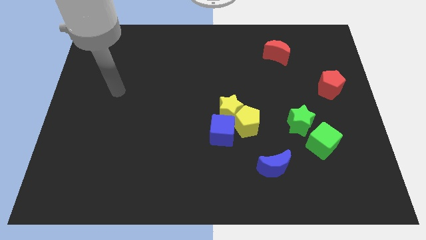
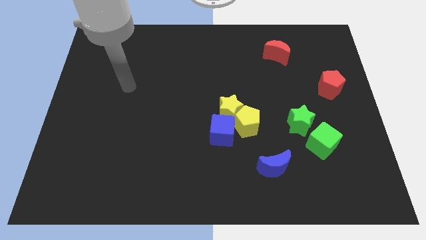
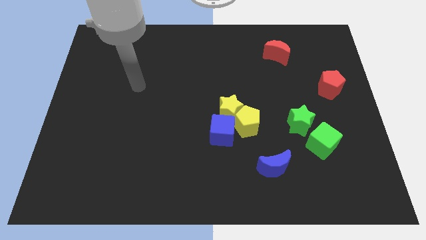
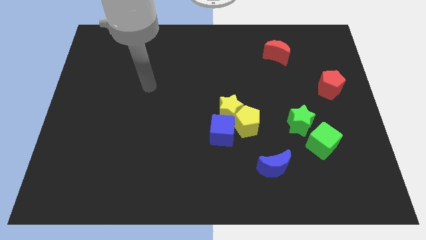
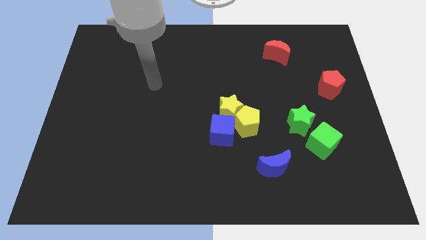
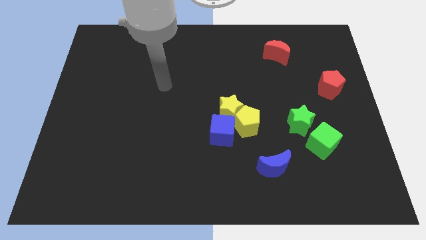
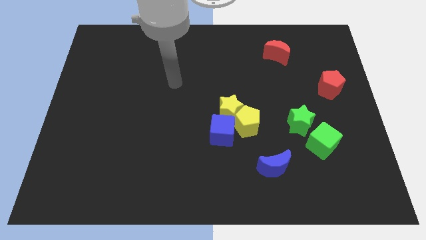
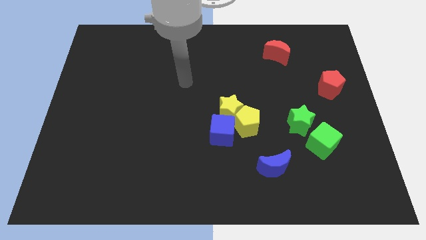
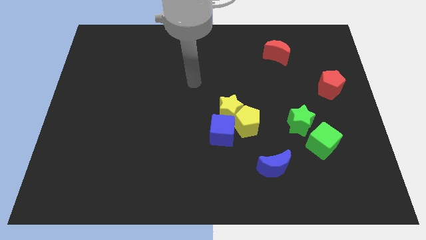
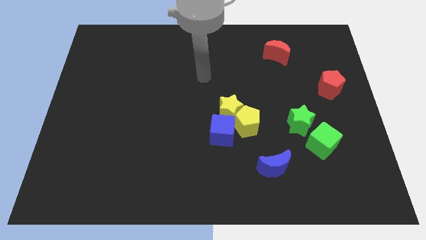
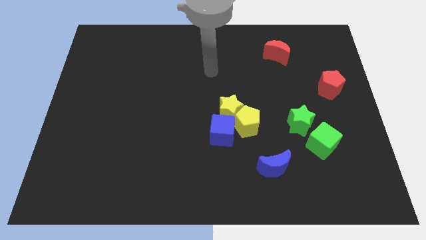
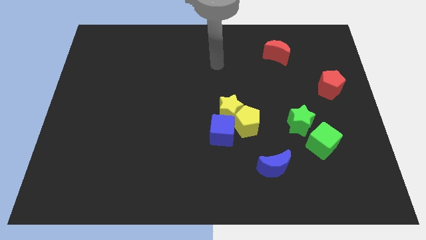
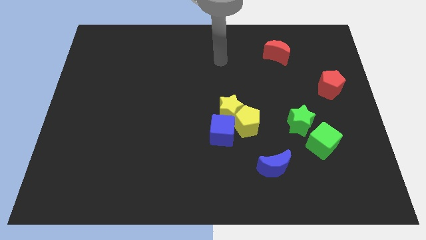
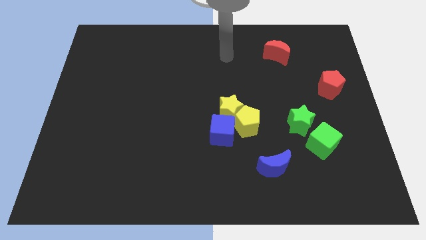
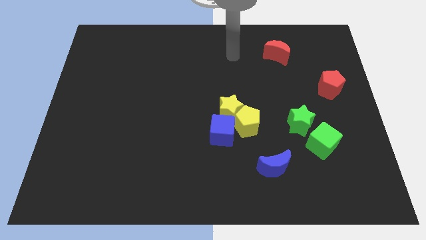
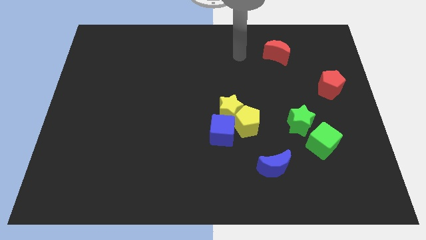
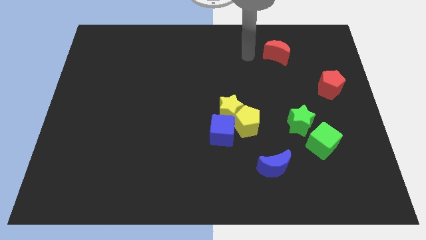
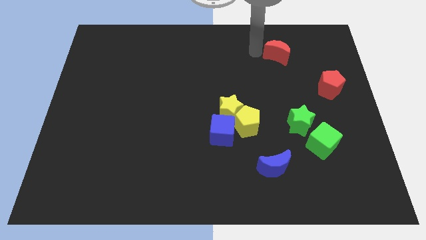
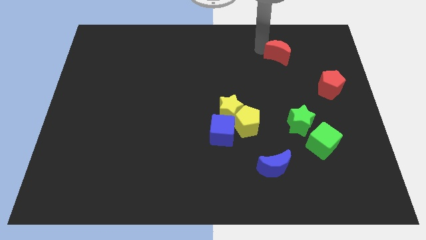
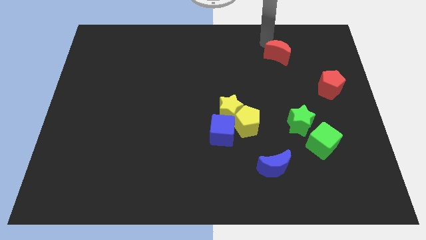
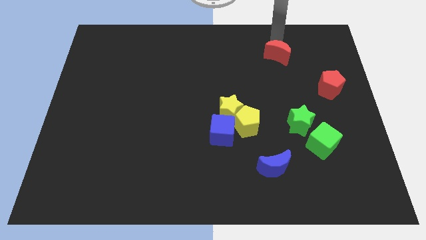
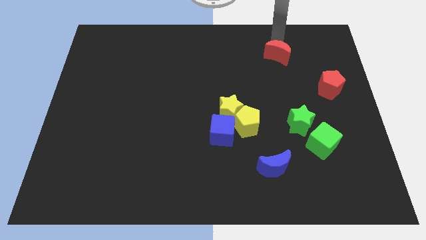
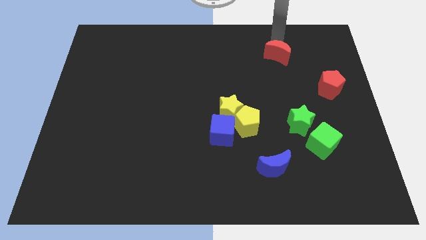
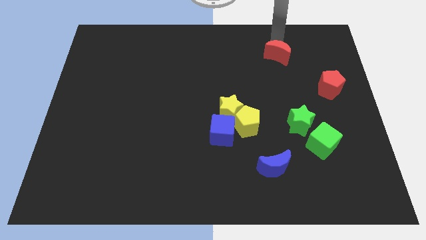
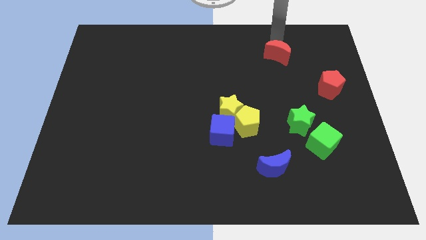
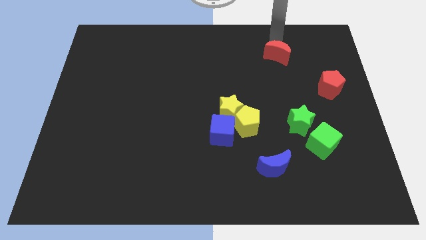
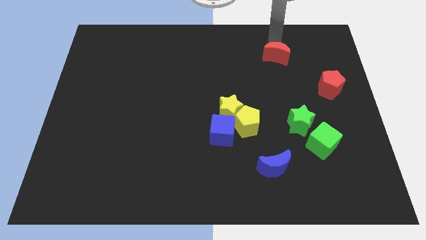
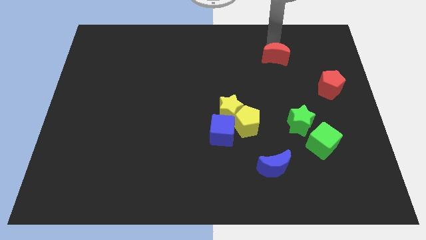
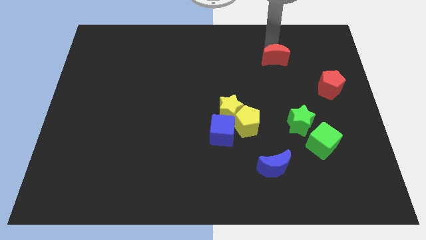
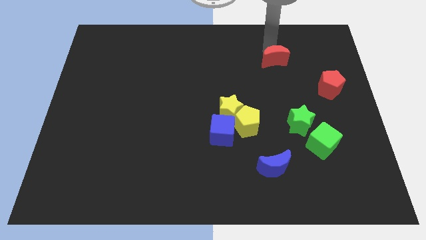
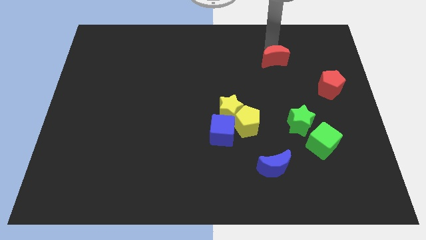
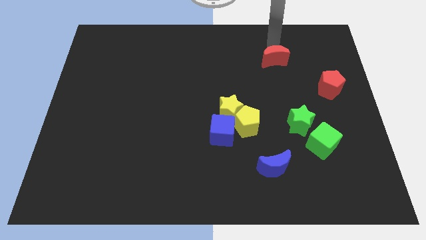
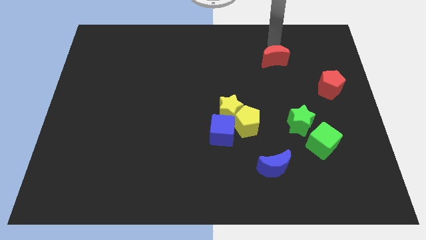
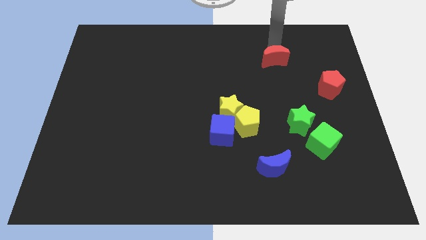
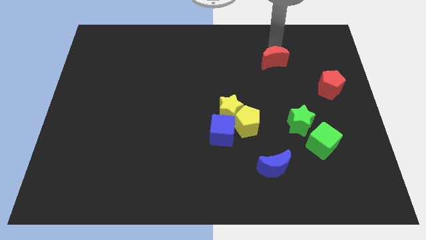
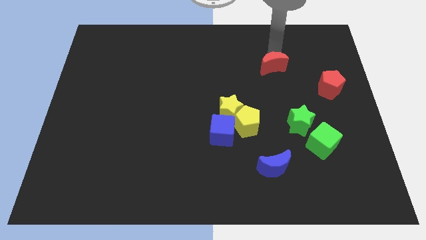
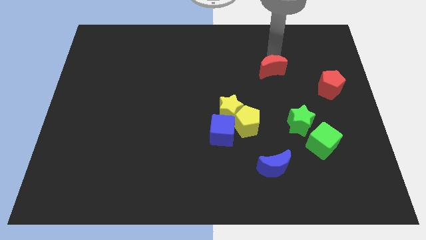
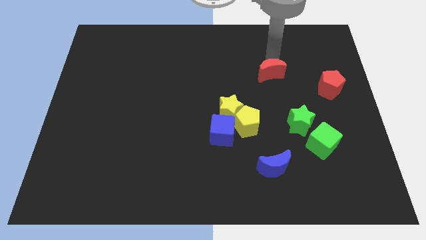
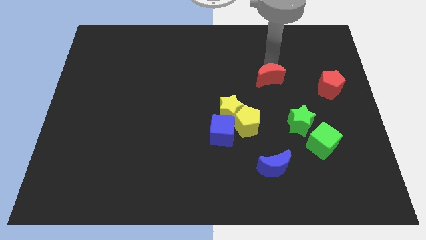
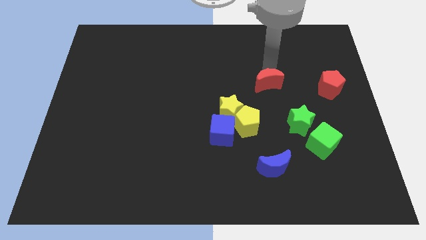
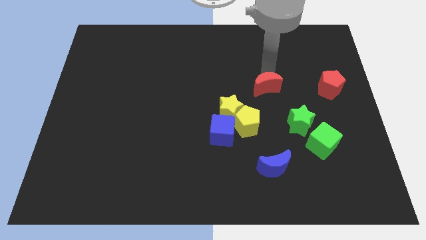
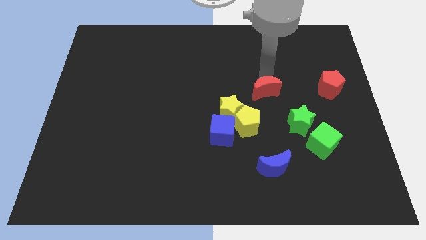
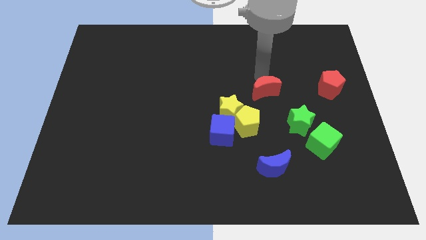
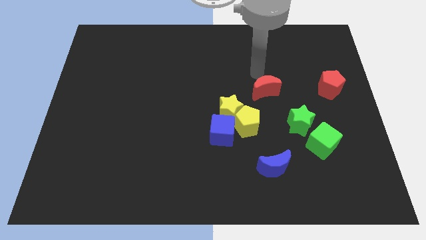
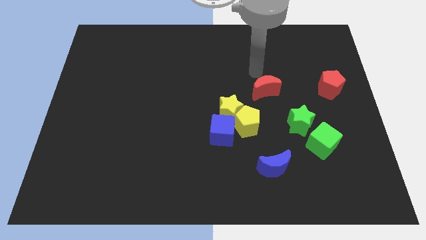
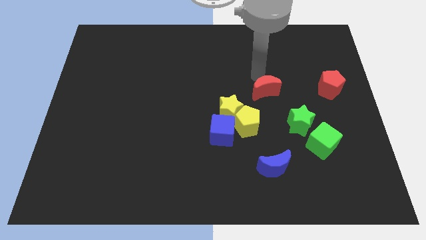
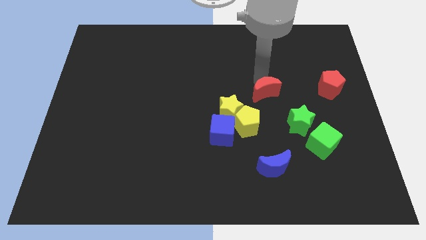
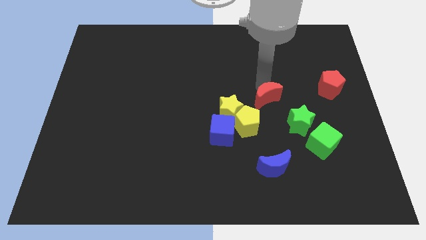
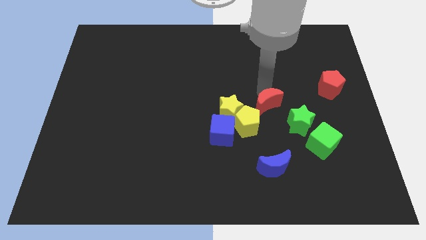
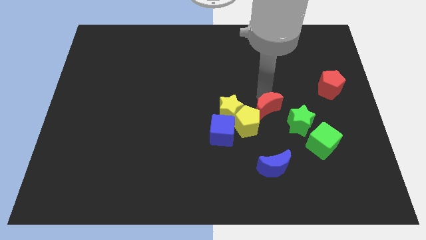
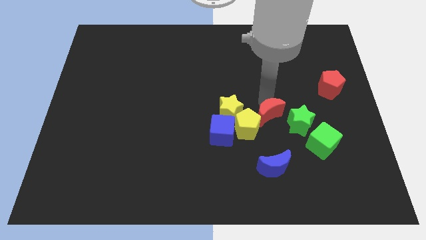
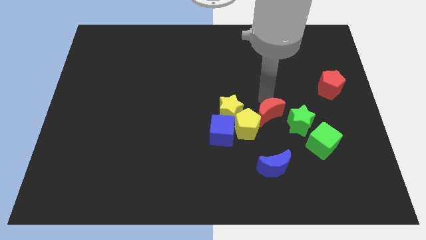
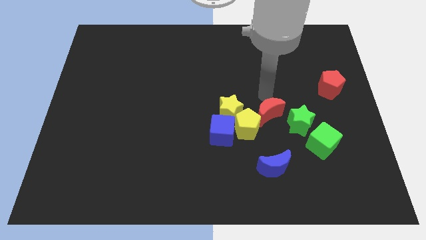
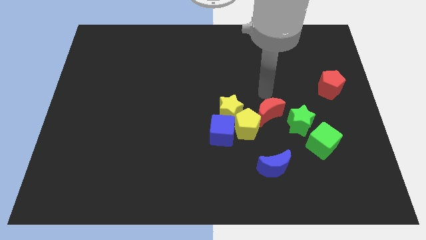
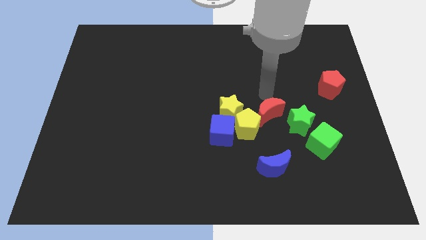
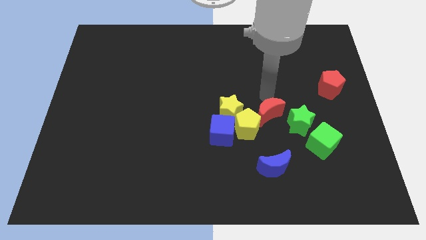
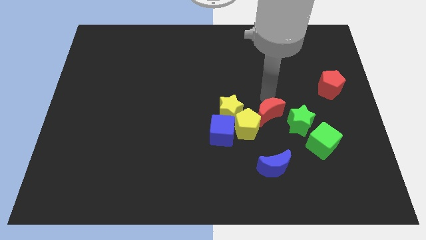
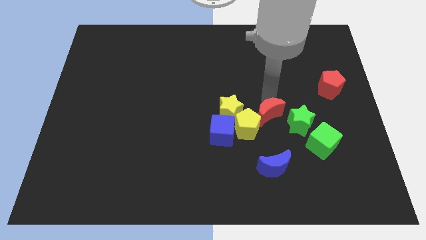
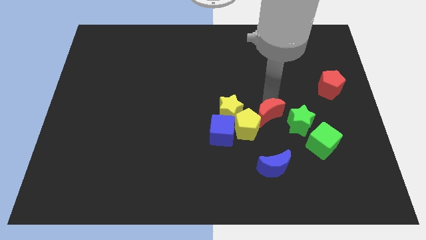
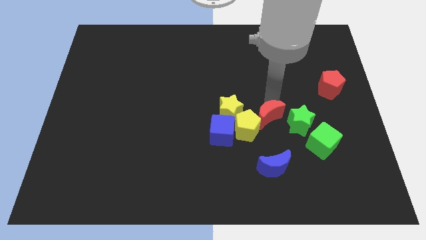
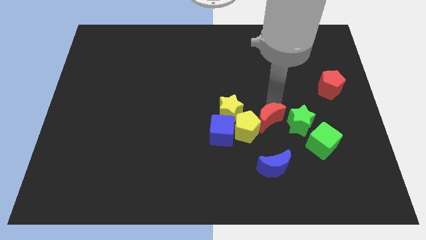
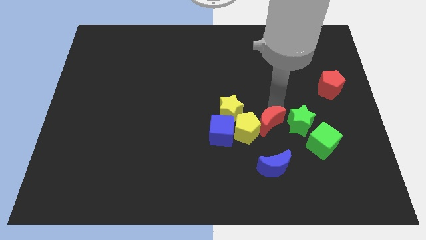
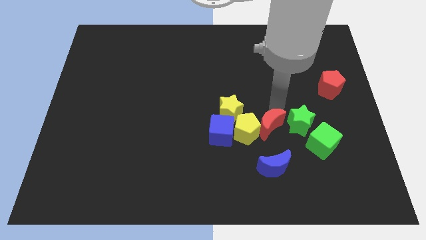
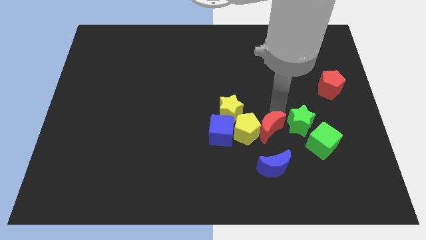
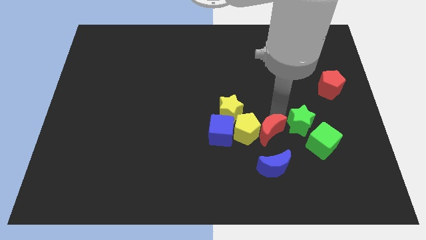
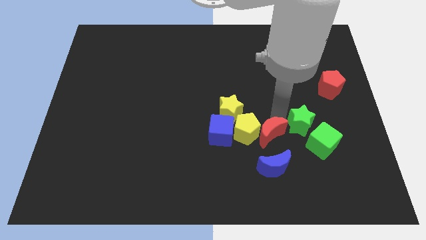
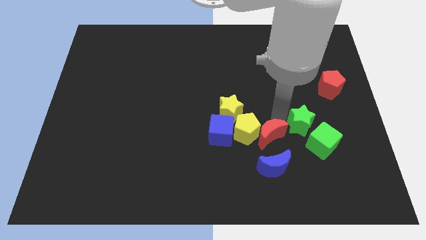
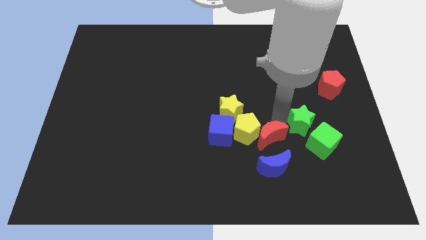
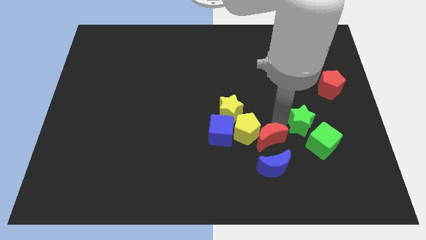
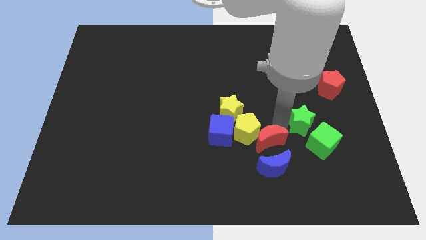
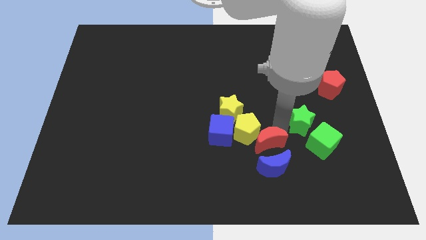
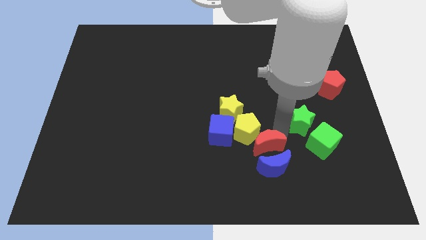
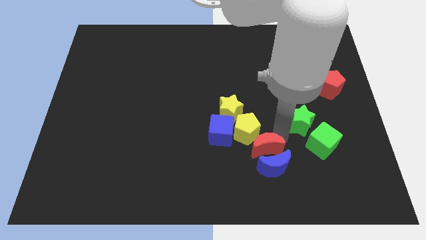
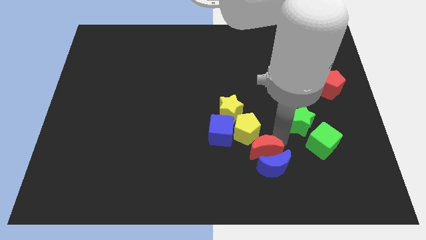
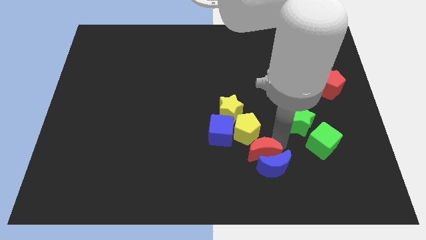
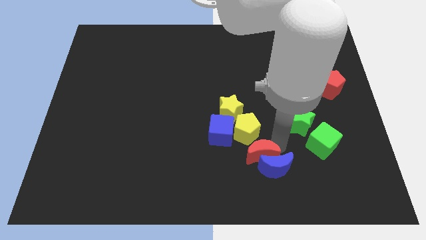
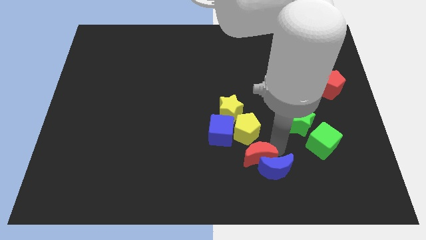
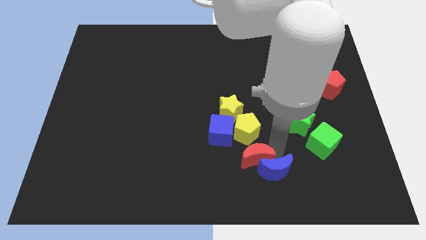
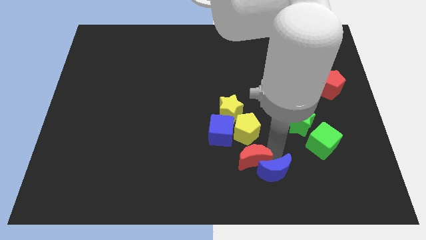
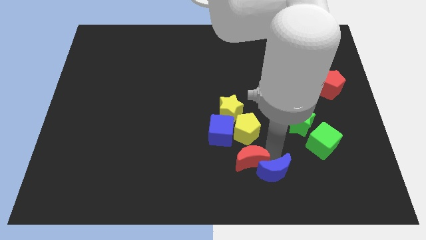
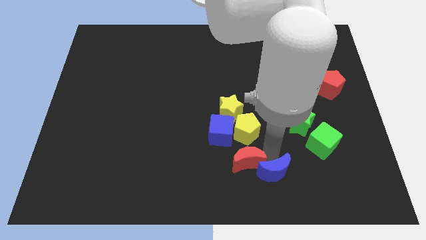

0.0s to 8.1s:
slide the red moon to the bottom side
